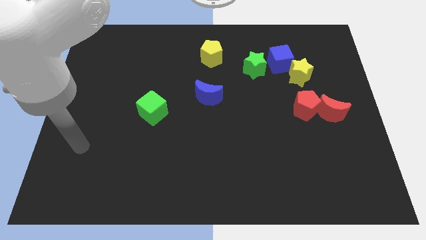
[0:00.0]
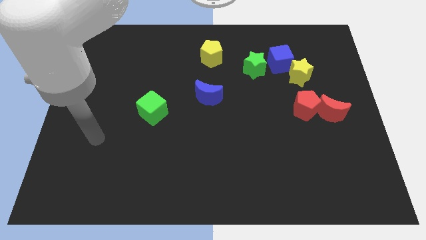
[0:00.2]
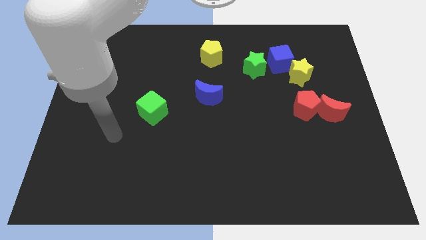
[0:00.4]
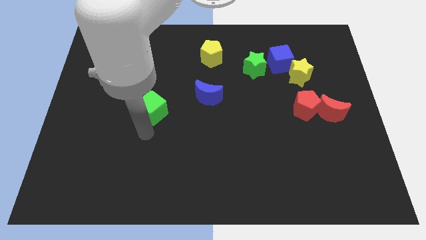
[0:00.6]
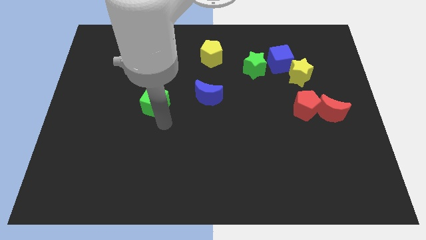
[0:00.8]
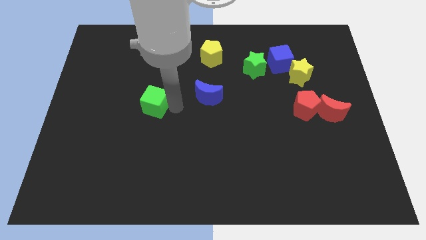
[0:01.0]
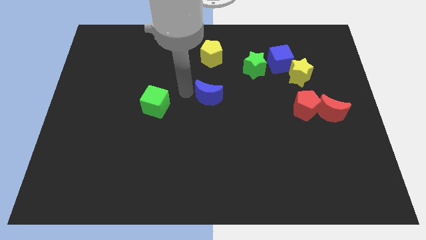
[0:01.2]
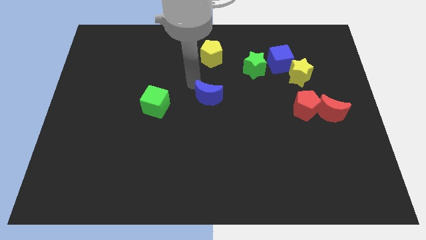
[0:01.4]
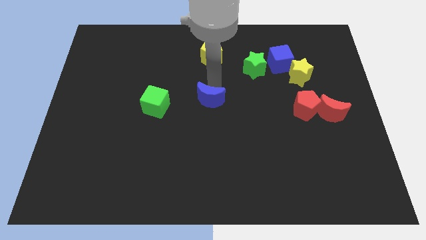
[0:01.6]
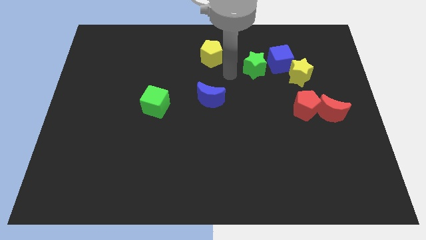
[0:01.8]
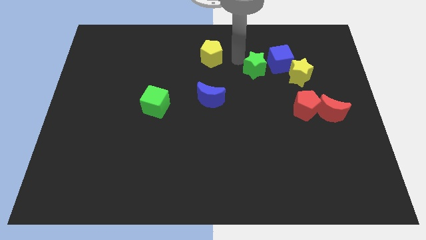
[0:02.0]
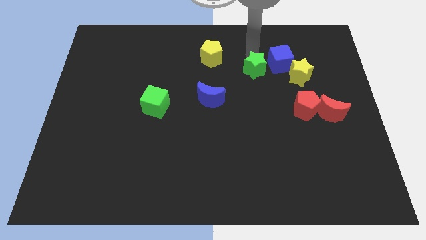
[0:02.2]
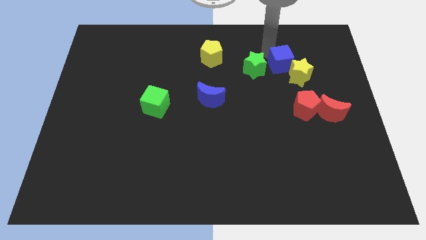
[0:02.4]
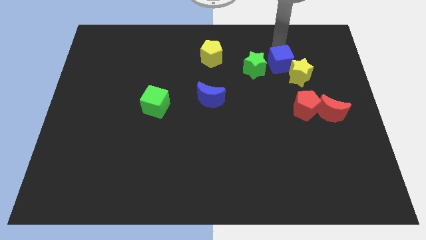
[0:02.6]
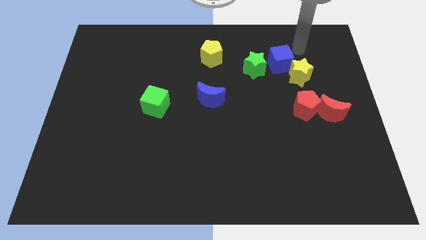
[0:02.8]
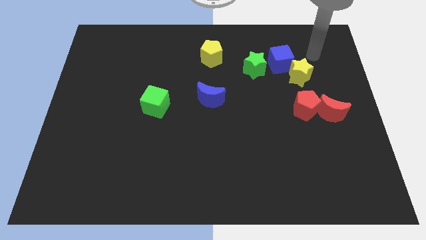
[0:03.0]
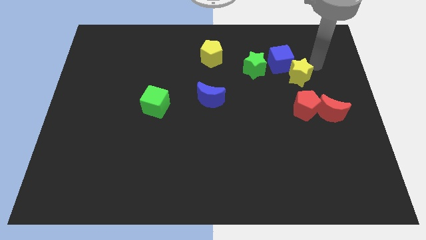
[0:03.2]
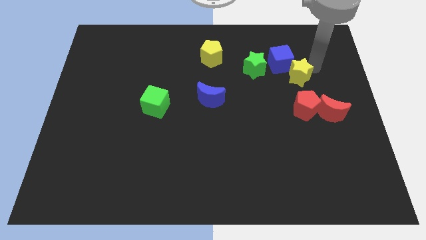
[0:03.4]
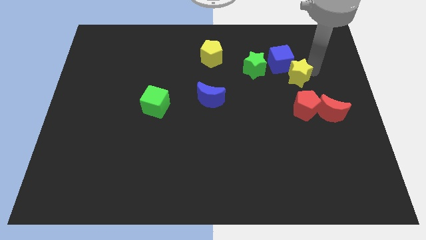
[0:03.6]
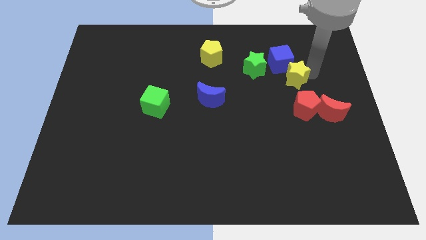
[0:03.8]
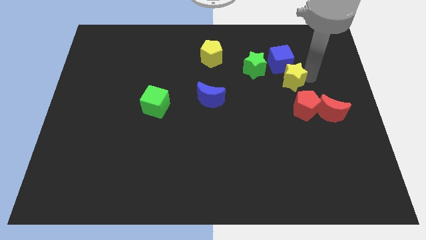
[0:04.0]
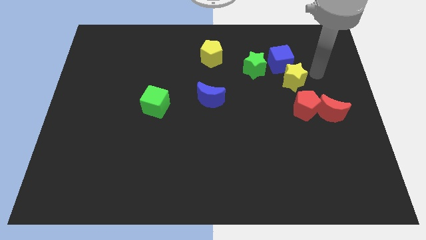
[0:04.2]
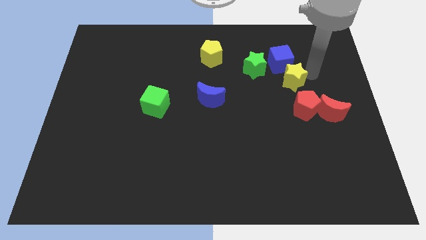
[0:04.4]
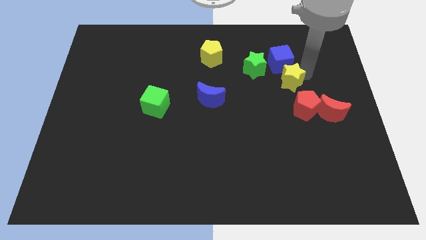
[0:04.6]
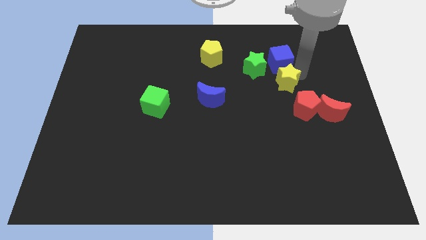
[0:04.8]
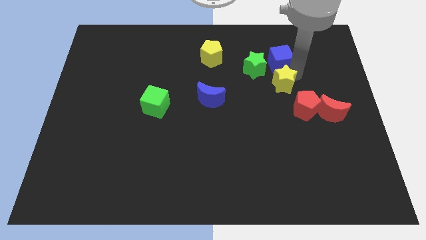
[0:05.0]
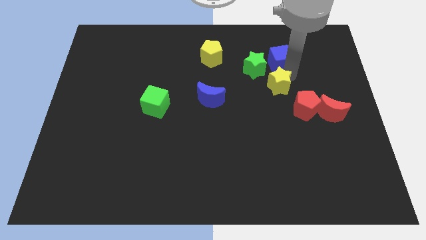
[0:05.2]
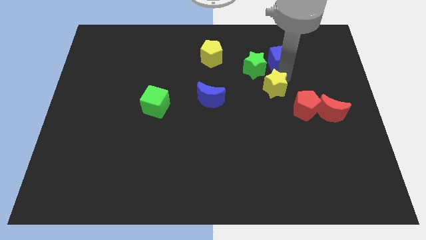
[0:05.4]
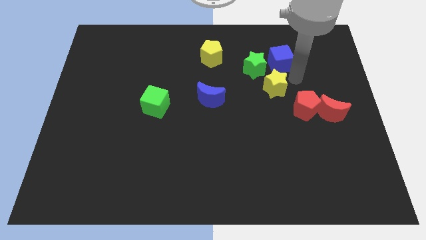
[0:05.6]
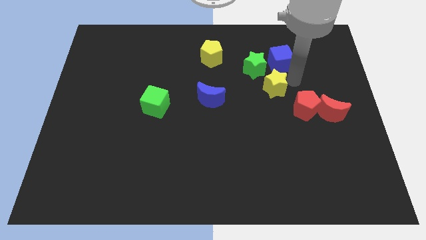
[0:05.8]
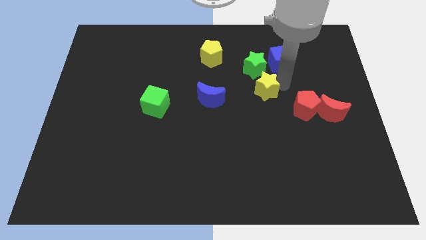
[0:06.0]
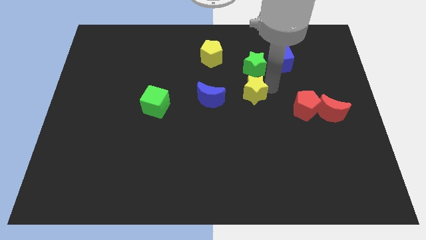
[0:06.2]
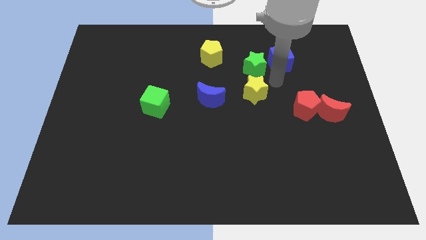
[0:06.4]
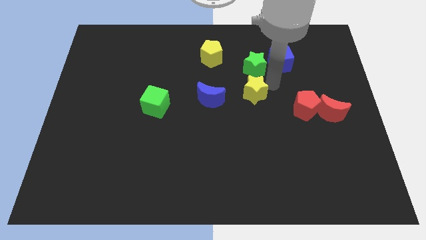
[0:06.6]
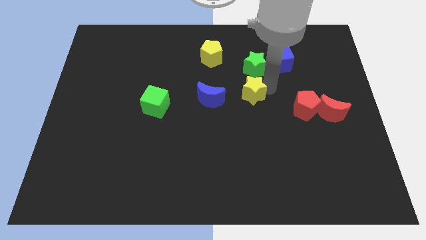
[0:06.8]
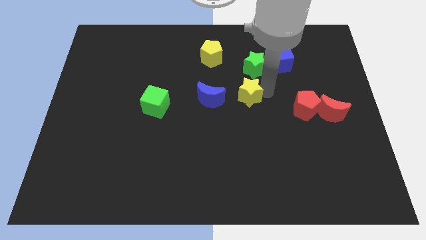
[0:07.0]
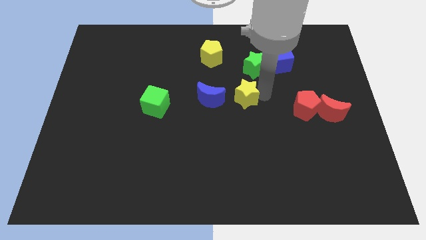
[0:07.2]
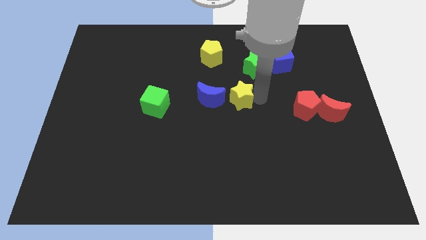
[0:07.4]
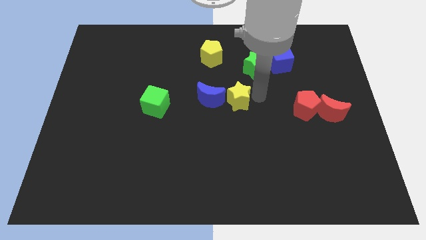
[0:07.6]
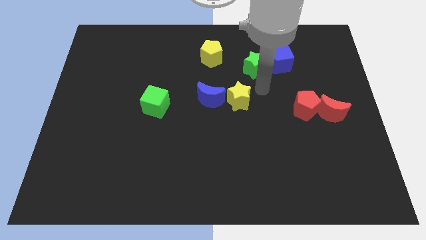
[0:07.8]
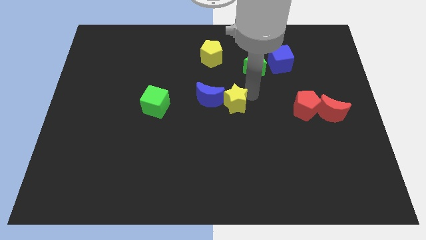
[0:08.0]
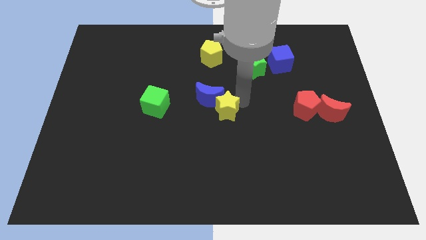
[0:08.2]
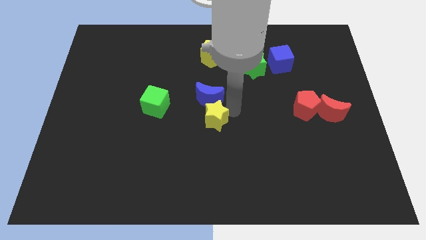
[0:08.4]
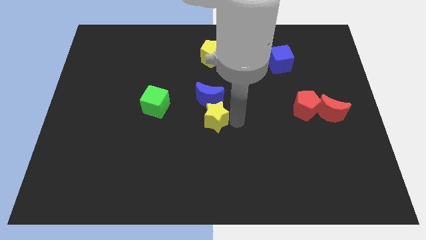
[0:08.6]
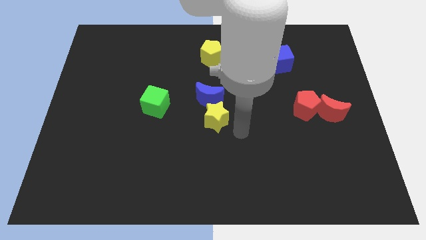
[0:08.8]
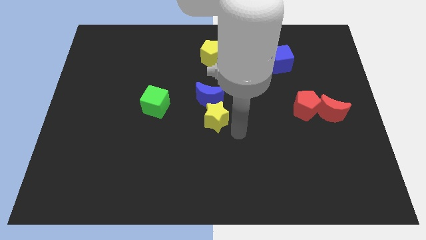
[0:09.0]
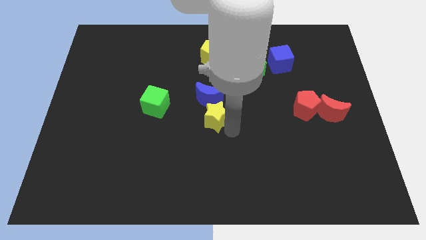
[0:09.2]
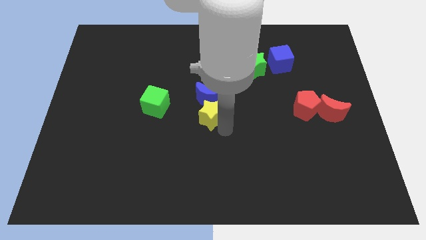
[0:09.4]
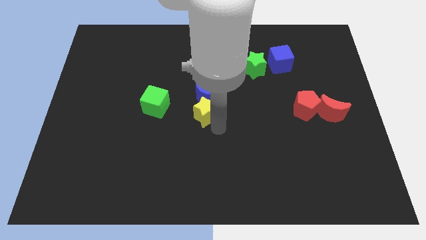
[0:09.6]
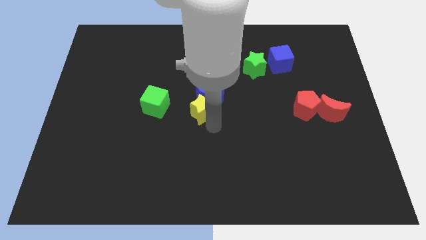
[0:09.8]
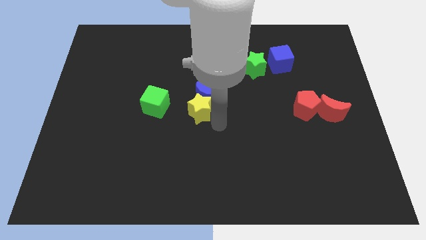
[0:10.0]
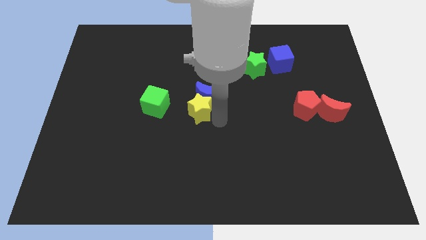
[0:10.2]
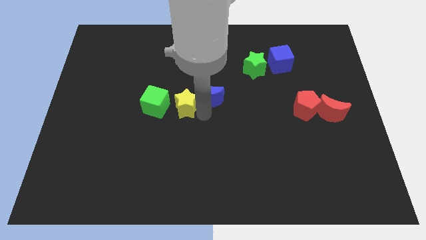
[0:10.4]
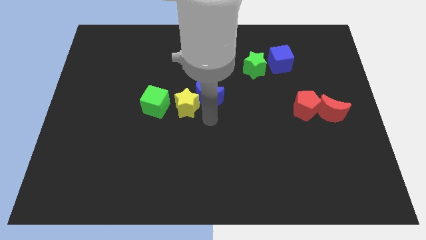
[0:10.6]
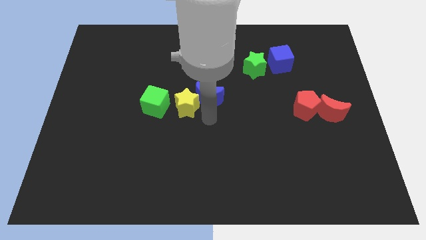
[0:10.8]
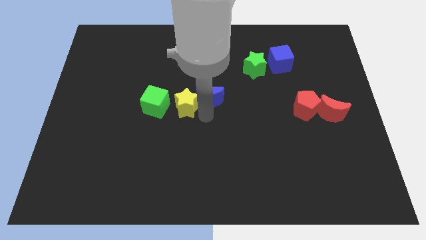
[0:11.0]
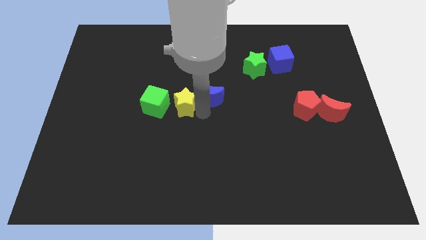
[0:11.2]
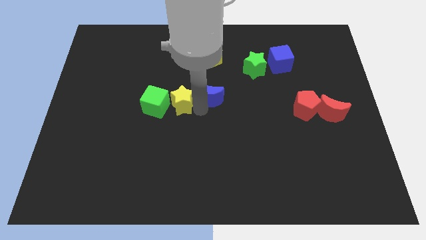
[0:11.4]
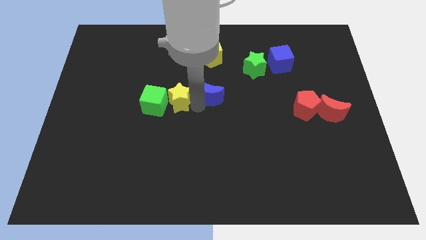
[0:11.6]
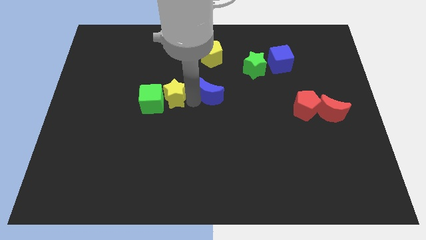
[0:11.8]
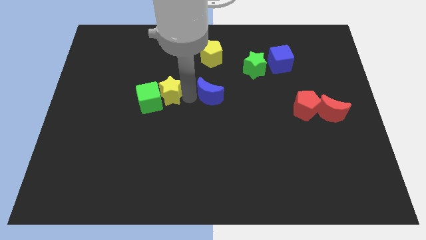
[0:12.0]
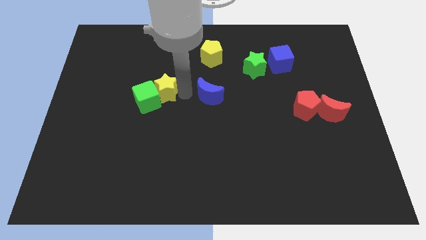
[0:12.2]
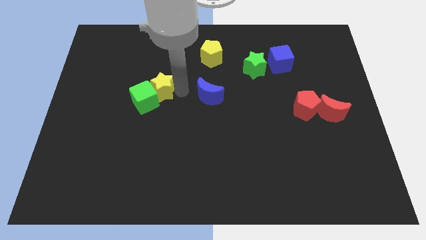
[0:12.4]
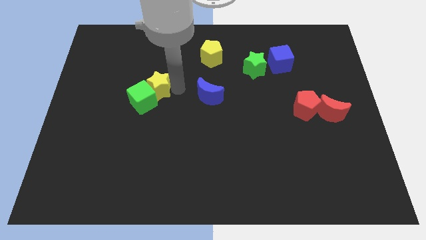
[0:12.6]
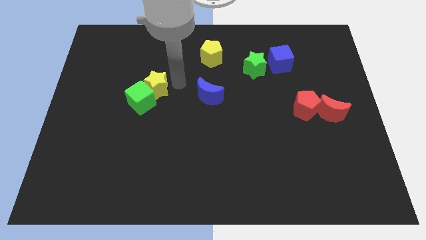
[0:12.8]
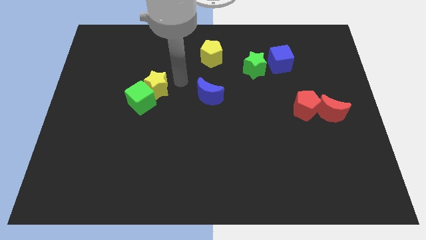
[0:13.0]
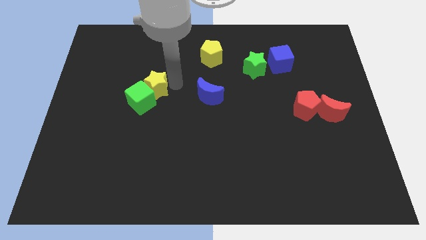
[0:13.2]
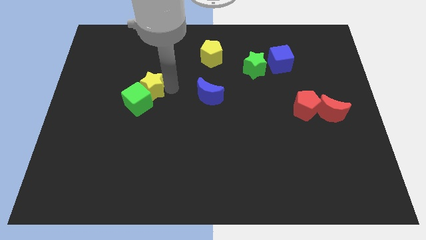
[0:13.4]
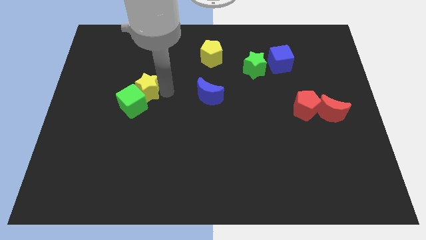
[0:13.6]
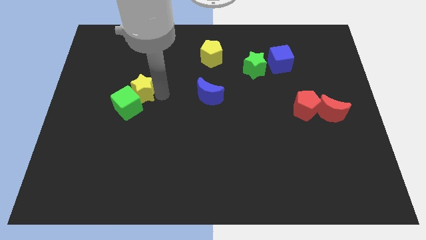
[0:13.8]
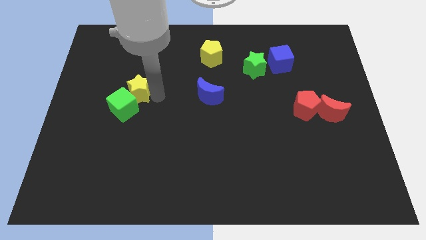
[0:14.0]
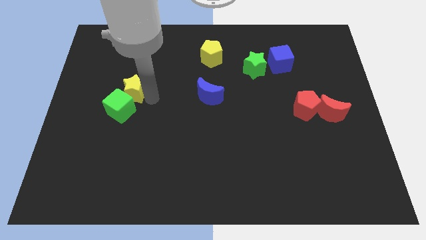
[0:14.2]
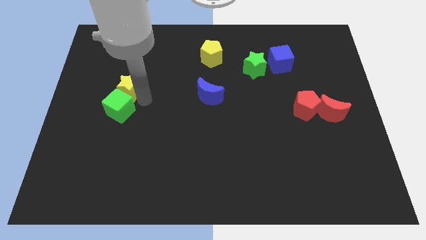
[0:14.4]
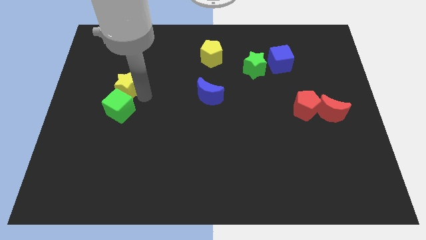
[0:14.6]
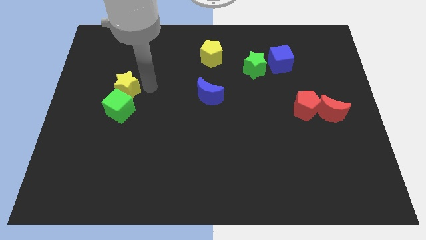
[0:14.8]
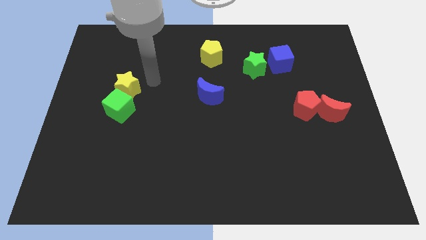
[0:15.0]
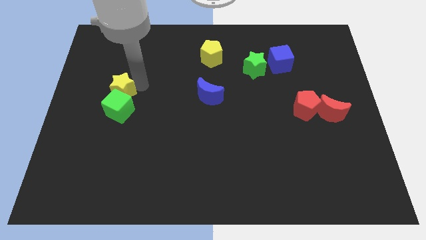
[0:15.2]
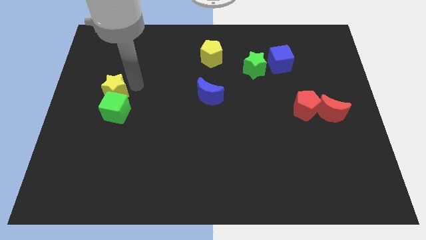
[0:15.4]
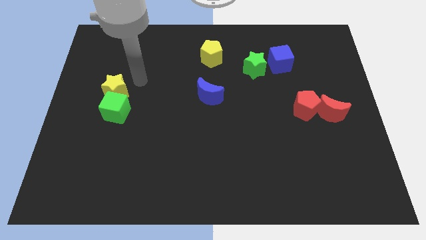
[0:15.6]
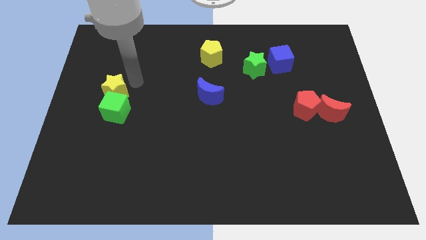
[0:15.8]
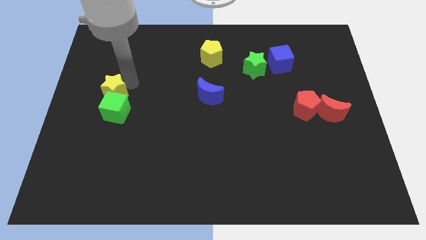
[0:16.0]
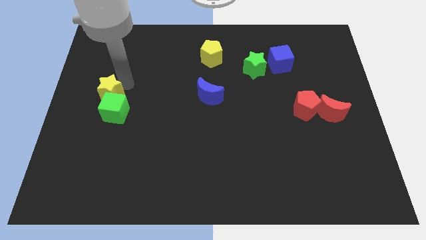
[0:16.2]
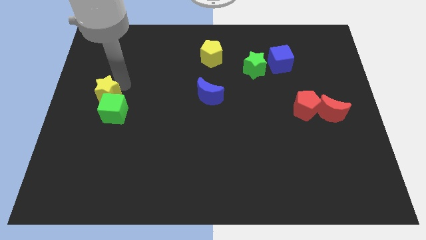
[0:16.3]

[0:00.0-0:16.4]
put the yellow star to the left side
